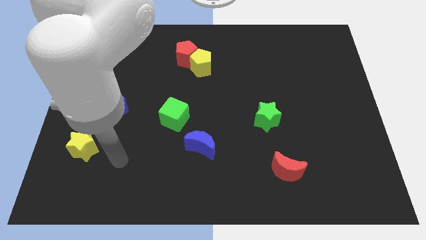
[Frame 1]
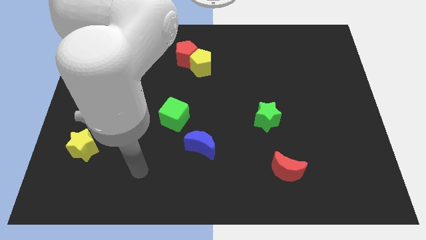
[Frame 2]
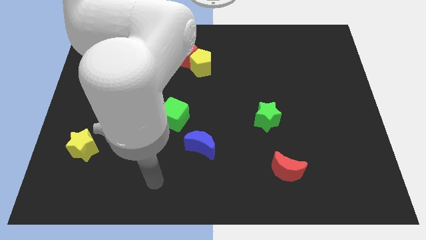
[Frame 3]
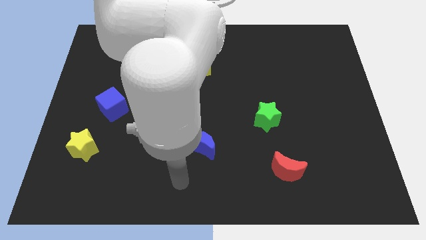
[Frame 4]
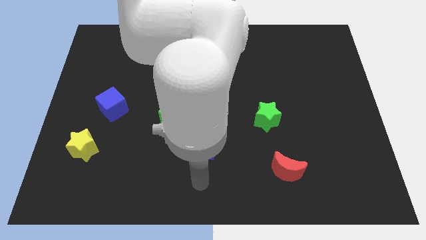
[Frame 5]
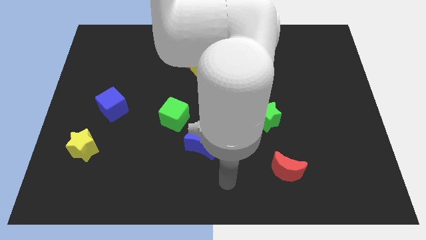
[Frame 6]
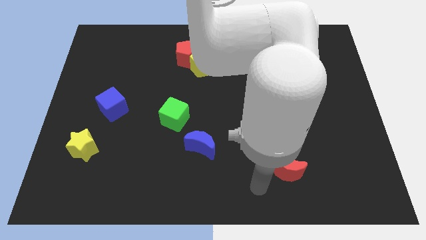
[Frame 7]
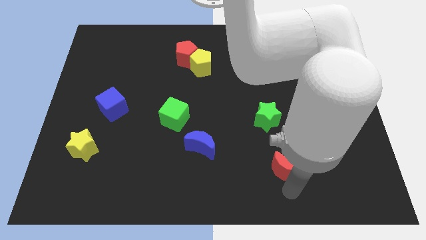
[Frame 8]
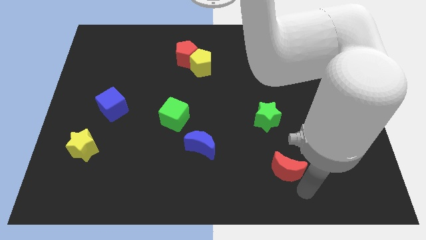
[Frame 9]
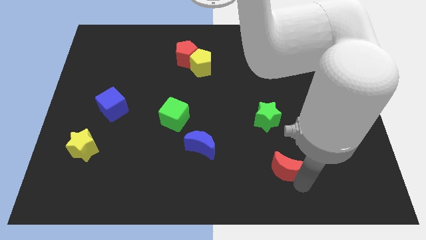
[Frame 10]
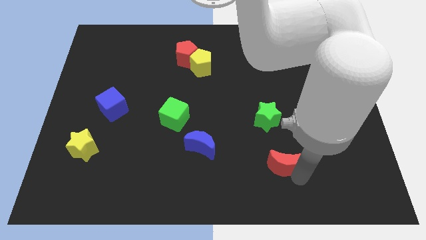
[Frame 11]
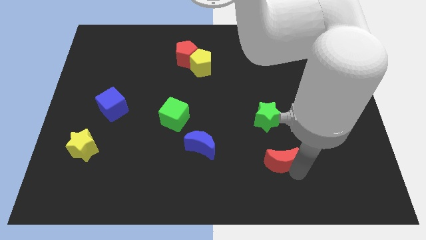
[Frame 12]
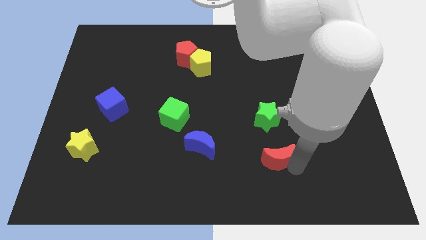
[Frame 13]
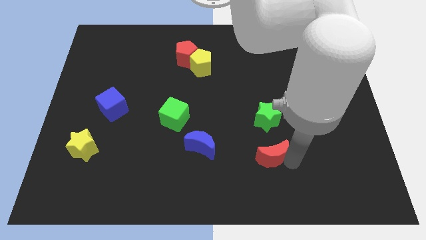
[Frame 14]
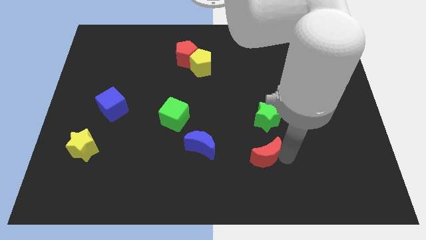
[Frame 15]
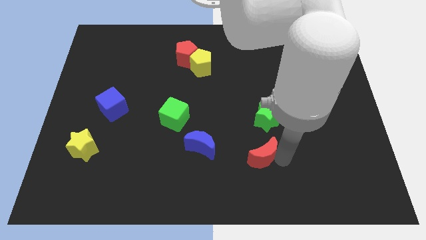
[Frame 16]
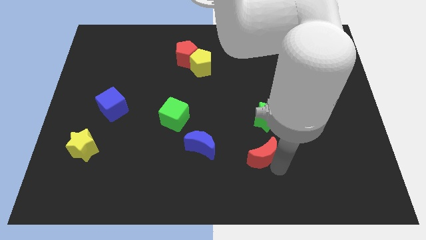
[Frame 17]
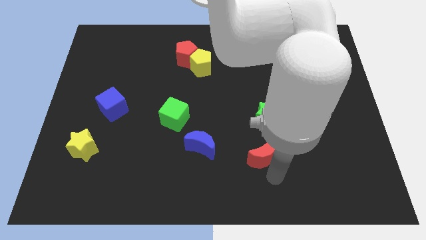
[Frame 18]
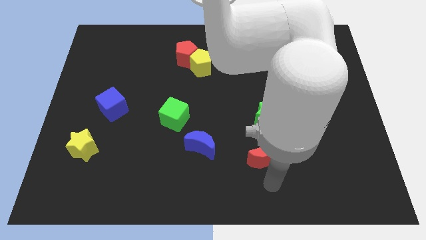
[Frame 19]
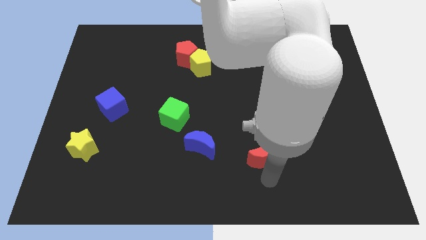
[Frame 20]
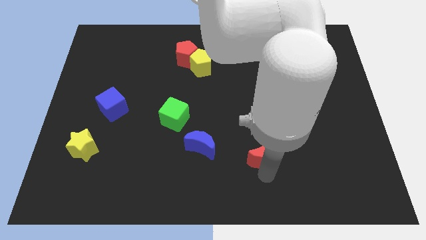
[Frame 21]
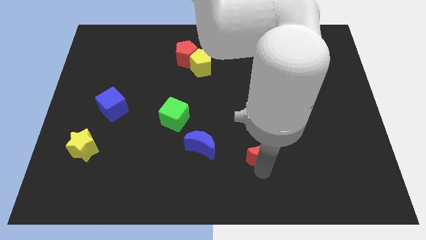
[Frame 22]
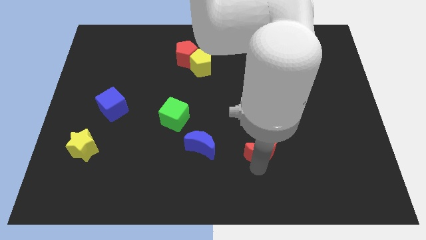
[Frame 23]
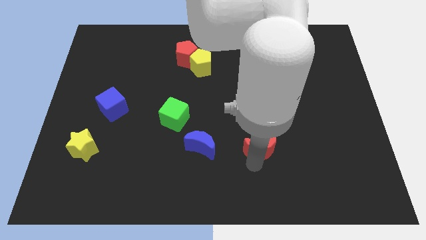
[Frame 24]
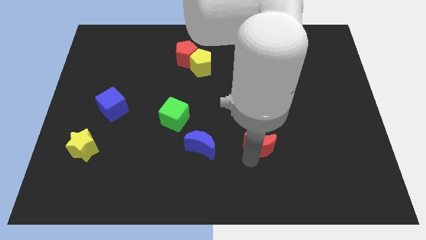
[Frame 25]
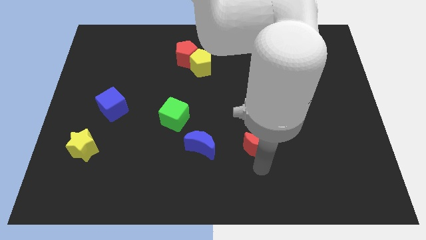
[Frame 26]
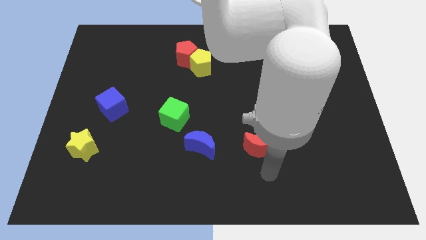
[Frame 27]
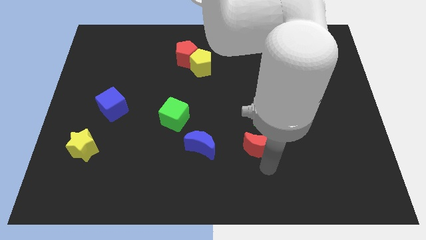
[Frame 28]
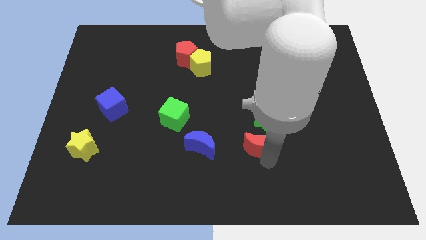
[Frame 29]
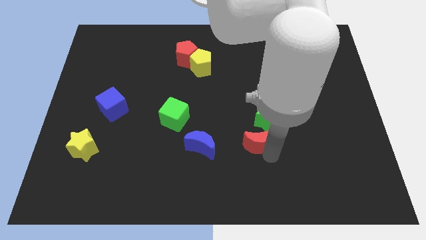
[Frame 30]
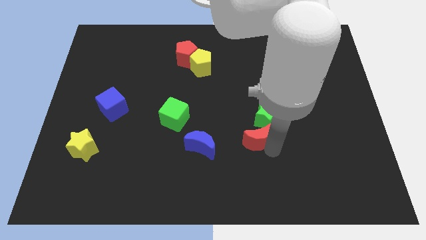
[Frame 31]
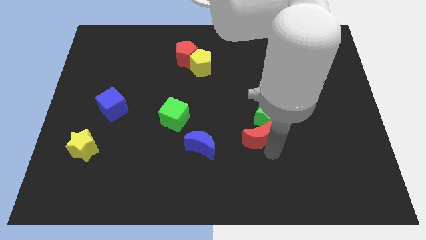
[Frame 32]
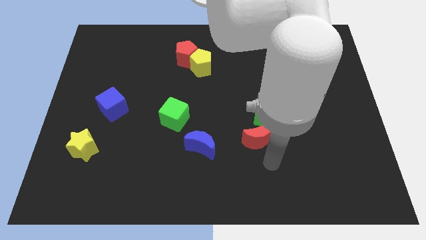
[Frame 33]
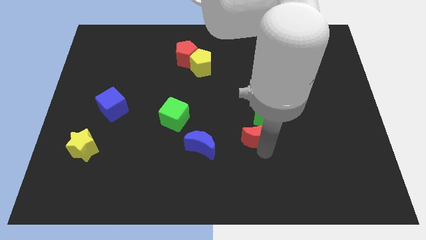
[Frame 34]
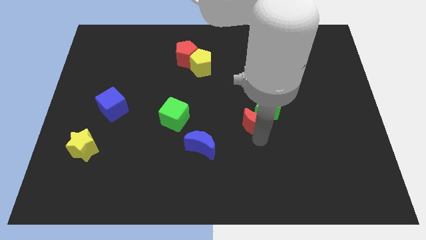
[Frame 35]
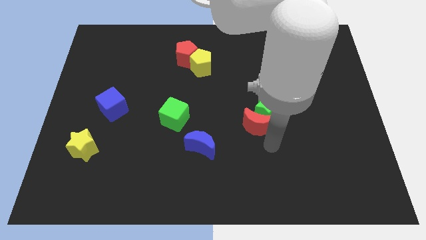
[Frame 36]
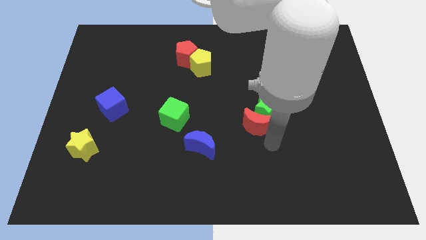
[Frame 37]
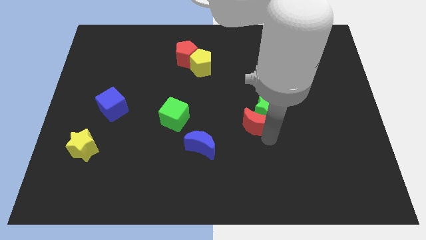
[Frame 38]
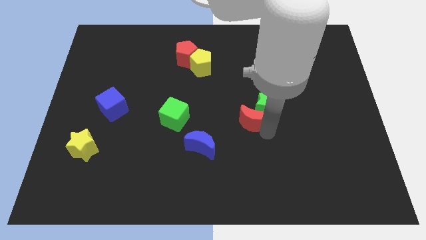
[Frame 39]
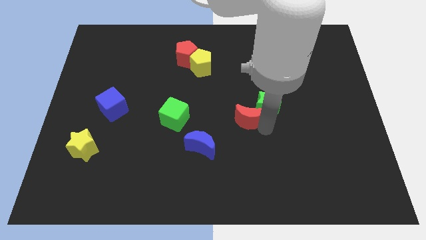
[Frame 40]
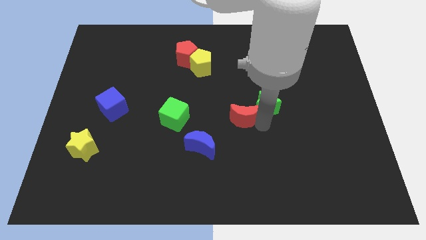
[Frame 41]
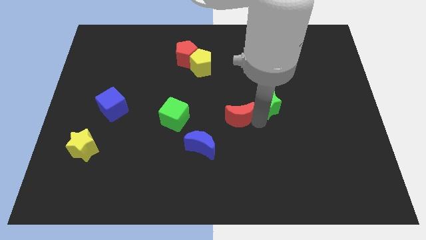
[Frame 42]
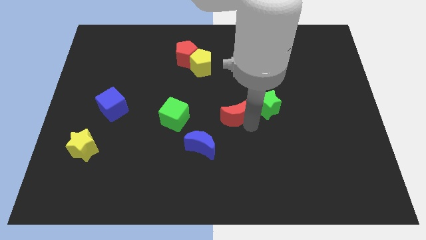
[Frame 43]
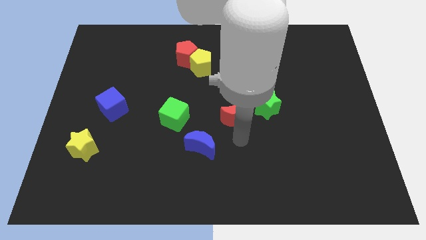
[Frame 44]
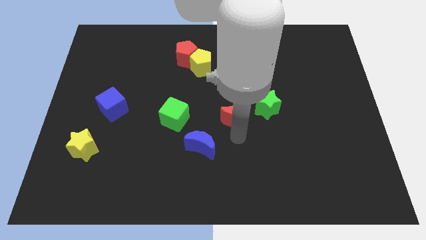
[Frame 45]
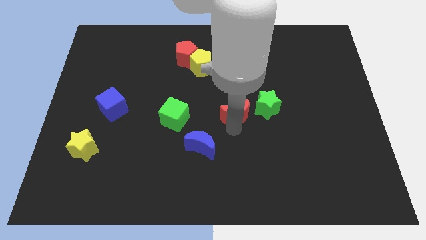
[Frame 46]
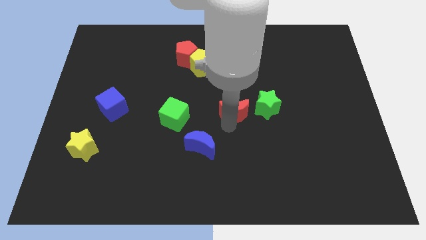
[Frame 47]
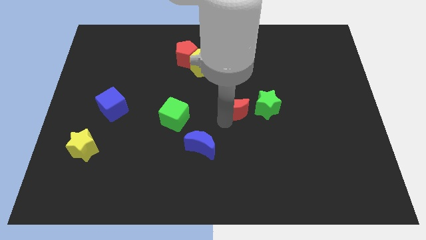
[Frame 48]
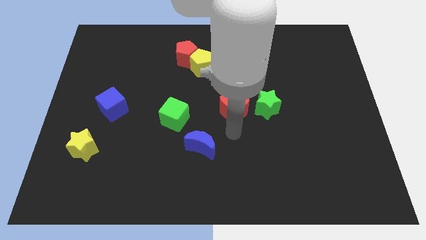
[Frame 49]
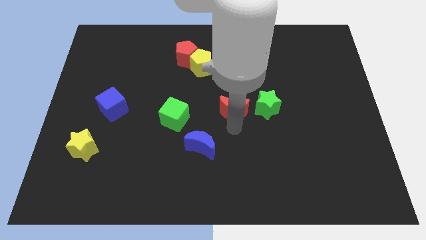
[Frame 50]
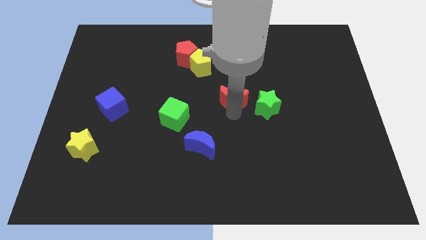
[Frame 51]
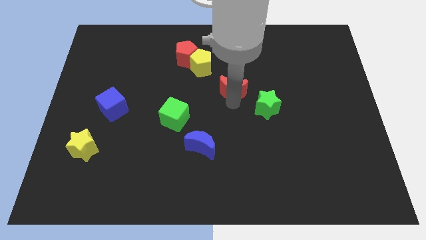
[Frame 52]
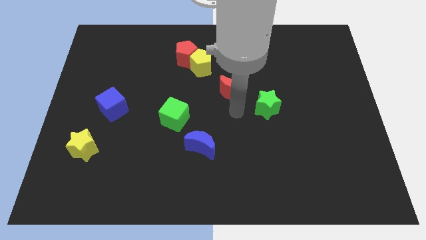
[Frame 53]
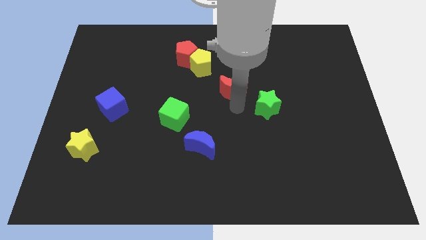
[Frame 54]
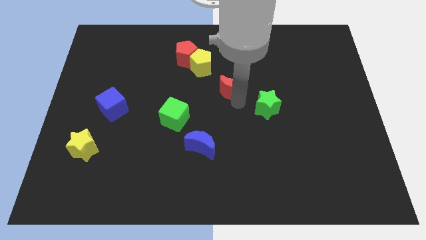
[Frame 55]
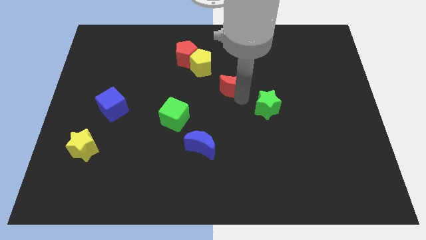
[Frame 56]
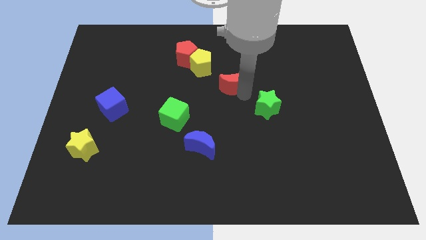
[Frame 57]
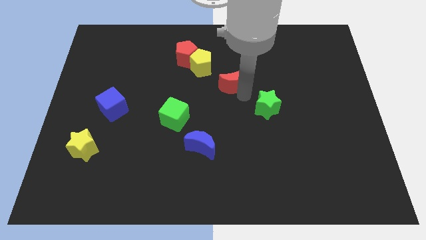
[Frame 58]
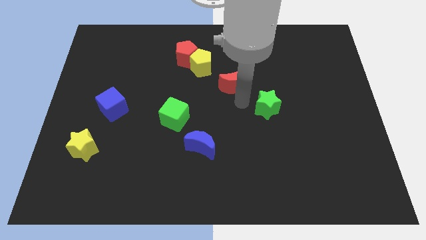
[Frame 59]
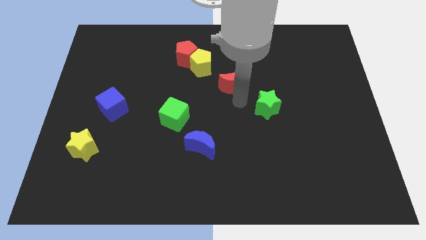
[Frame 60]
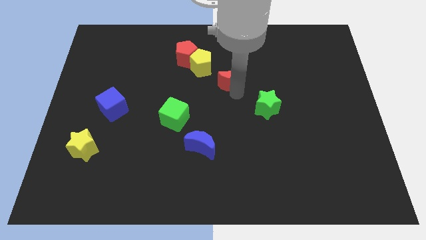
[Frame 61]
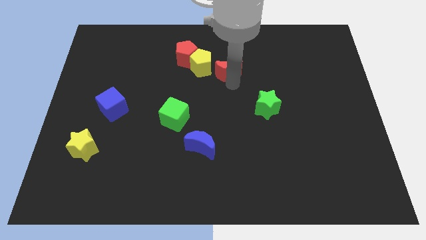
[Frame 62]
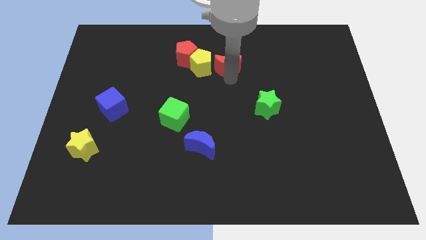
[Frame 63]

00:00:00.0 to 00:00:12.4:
push the red moon to the right of the red pentagon

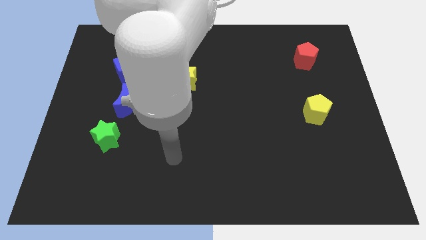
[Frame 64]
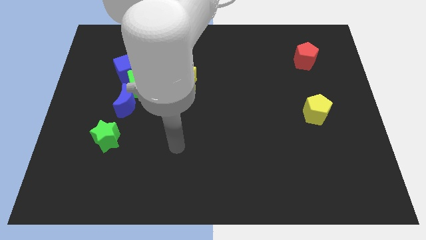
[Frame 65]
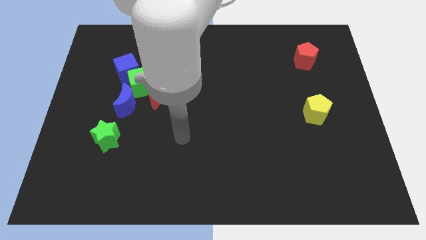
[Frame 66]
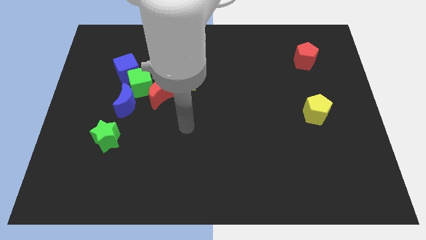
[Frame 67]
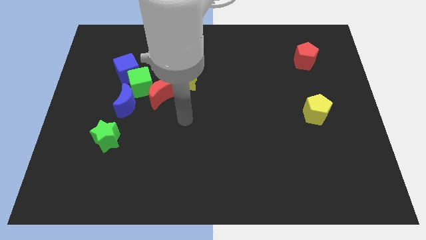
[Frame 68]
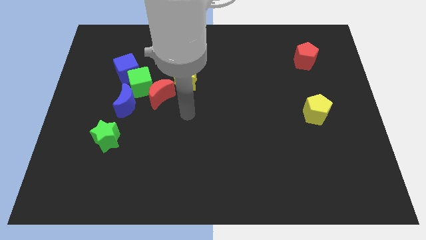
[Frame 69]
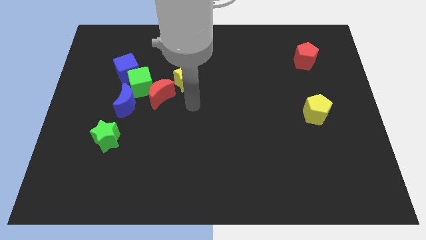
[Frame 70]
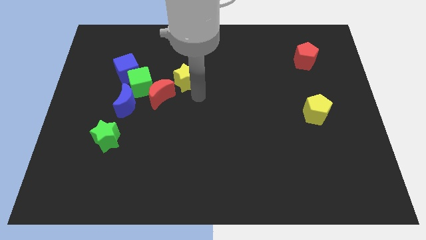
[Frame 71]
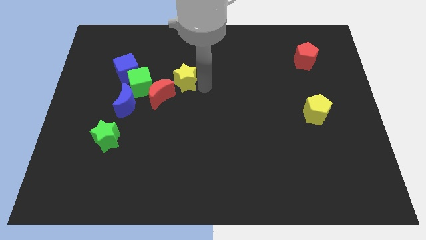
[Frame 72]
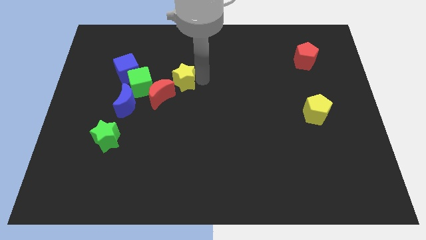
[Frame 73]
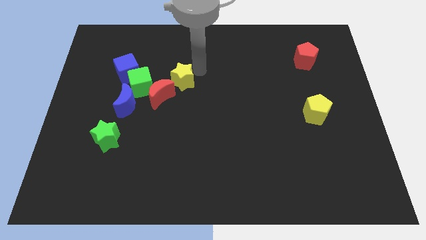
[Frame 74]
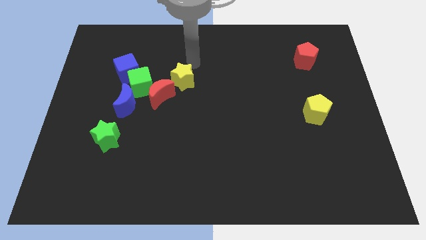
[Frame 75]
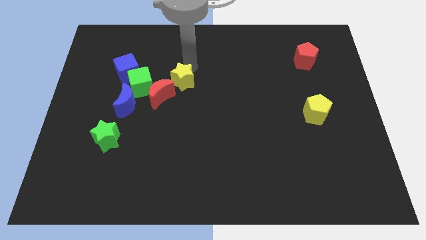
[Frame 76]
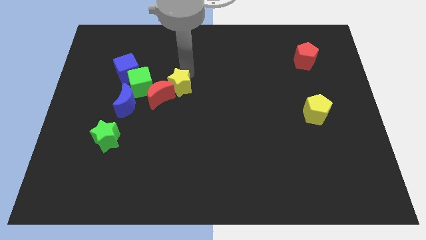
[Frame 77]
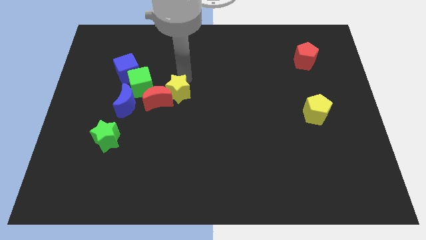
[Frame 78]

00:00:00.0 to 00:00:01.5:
slide the yellow star to the right side of the blue moon
